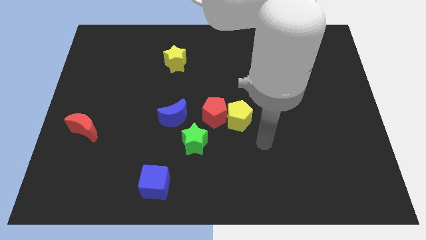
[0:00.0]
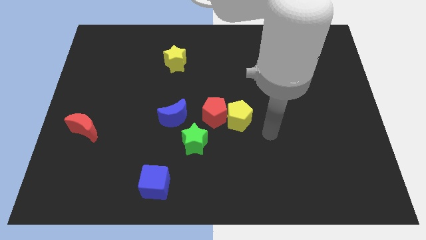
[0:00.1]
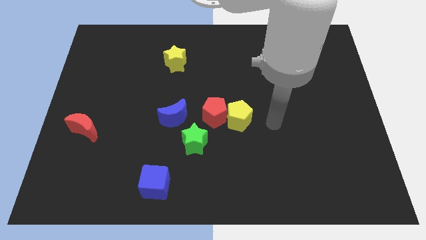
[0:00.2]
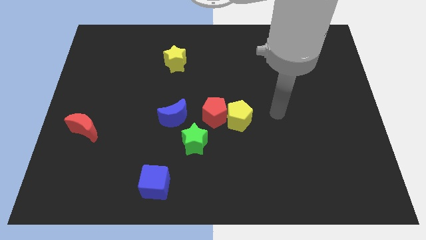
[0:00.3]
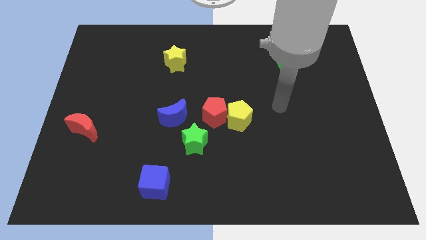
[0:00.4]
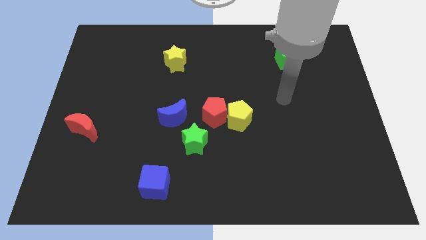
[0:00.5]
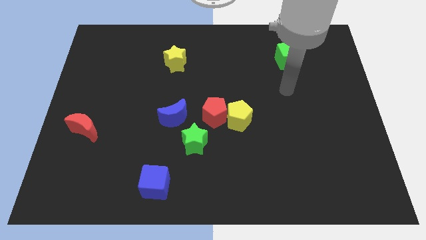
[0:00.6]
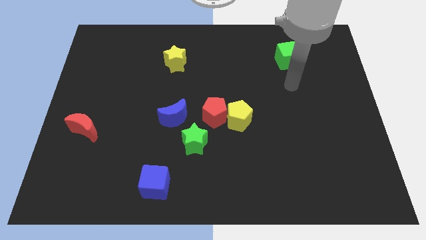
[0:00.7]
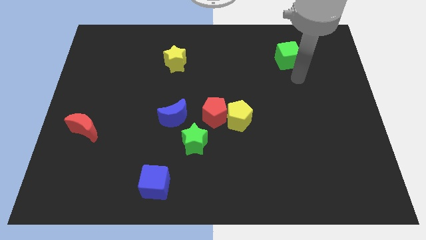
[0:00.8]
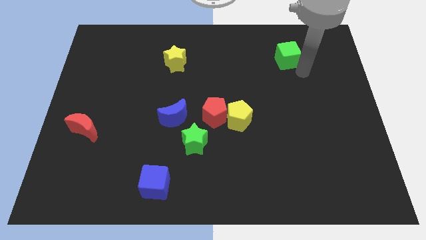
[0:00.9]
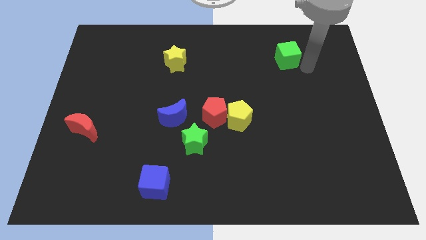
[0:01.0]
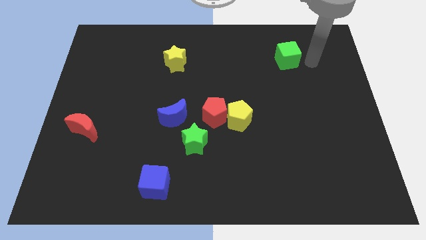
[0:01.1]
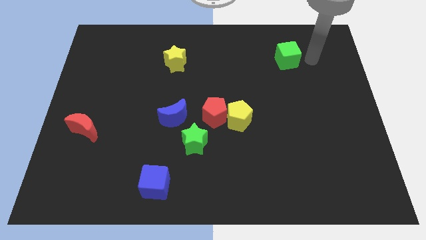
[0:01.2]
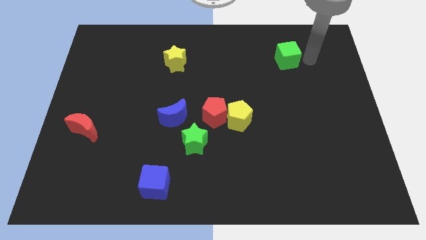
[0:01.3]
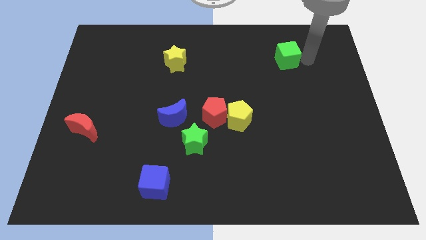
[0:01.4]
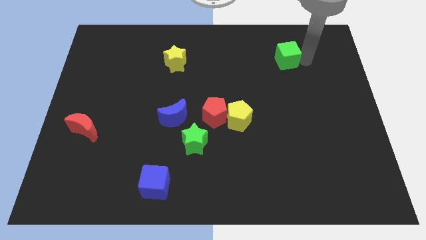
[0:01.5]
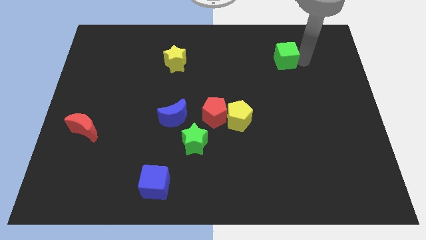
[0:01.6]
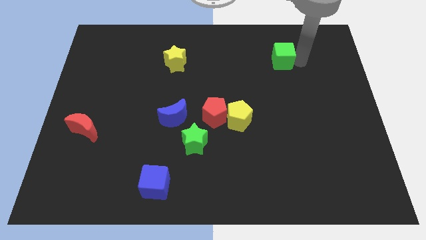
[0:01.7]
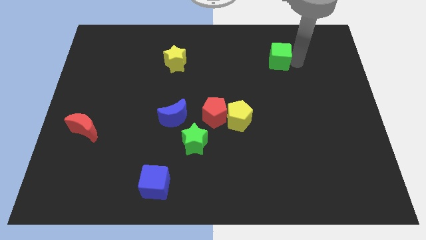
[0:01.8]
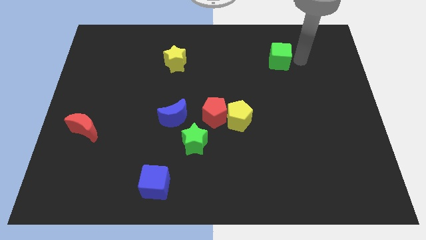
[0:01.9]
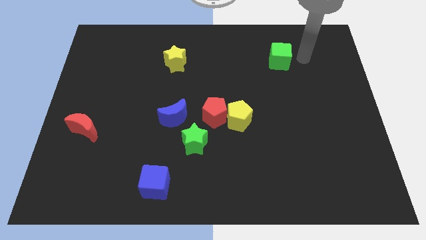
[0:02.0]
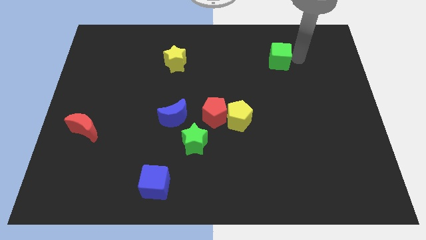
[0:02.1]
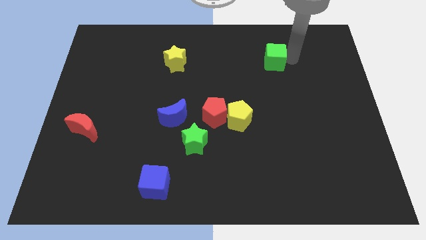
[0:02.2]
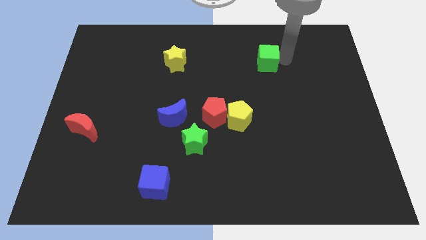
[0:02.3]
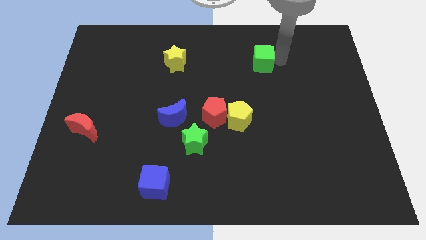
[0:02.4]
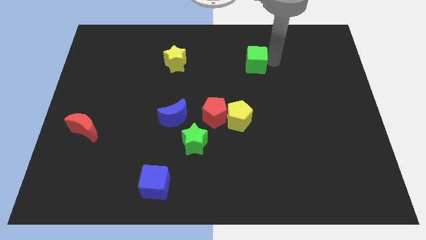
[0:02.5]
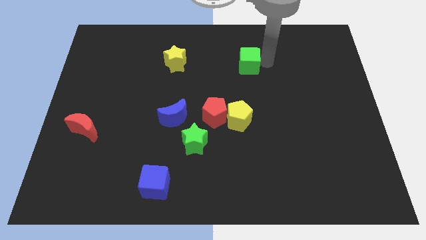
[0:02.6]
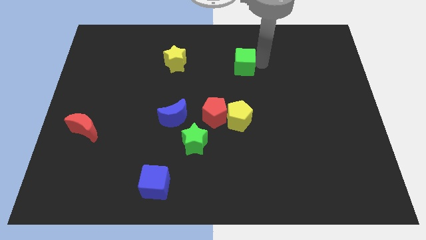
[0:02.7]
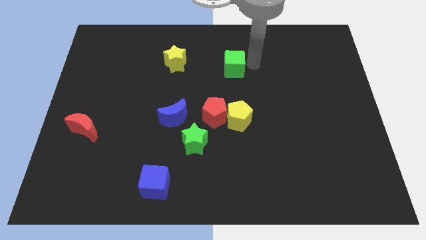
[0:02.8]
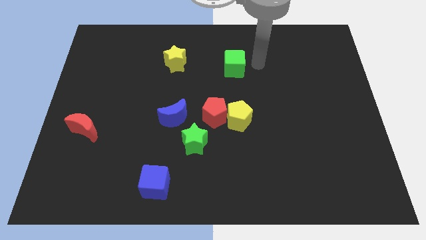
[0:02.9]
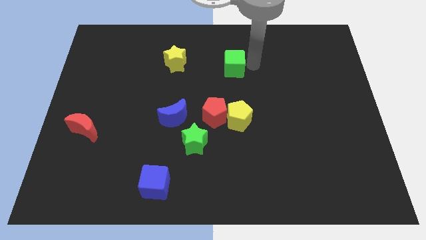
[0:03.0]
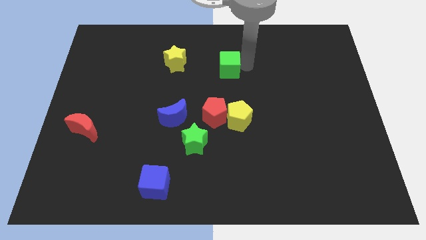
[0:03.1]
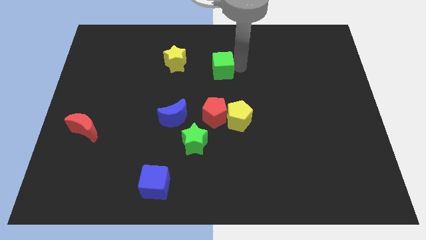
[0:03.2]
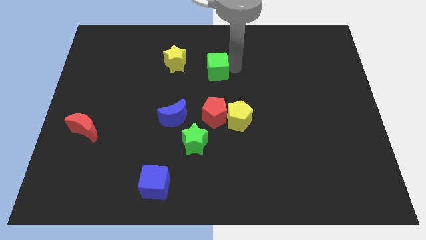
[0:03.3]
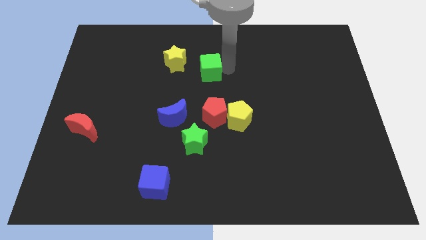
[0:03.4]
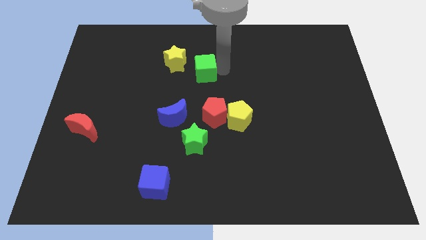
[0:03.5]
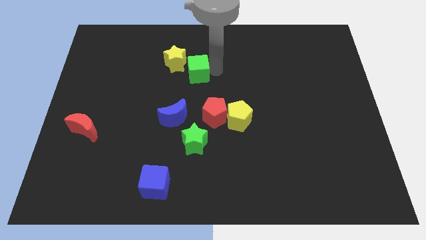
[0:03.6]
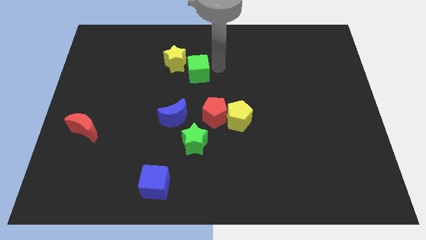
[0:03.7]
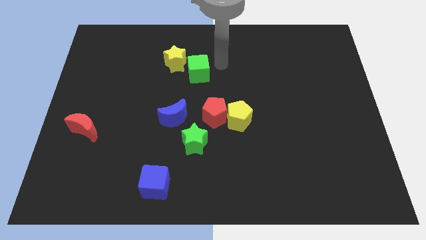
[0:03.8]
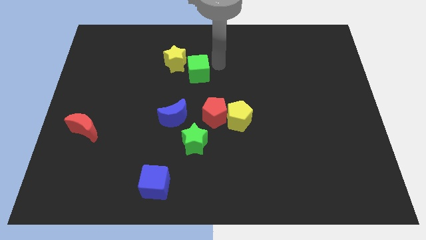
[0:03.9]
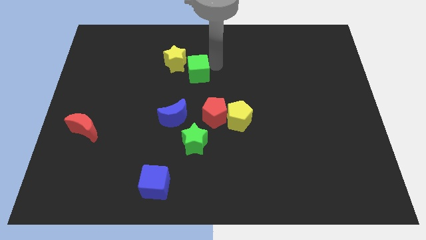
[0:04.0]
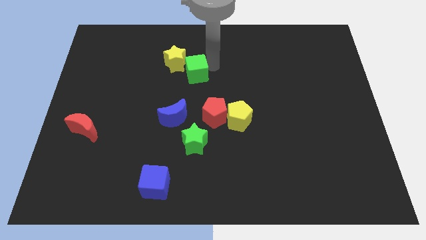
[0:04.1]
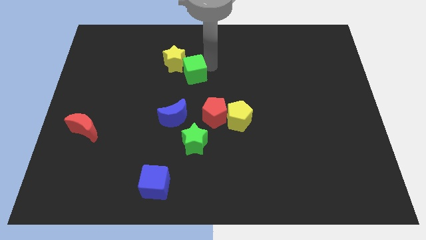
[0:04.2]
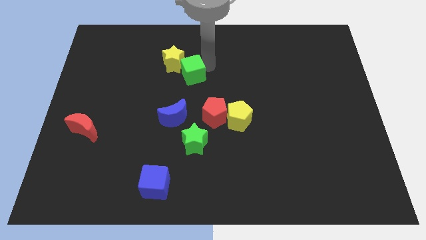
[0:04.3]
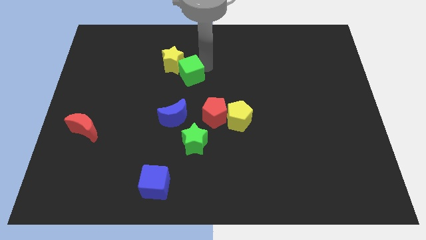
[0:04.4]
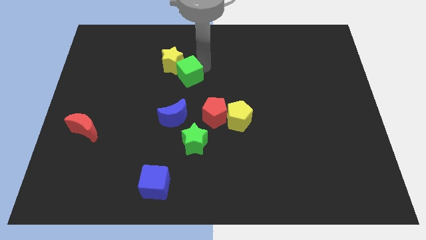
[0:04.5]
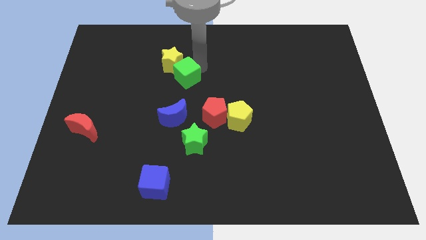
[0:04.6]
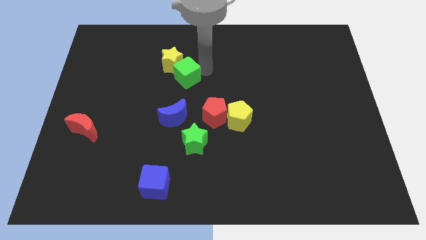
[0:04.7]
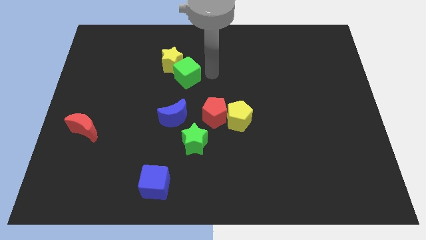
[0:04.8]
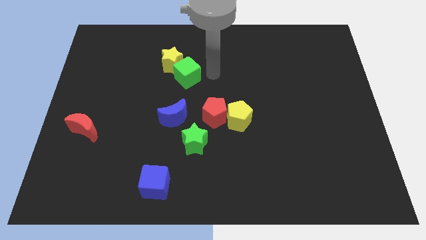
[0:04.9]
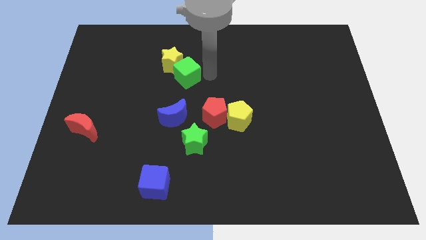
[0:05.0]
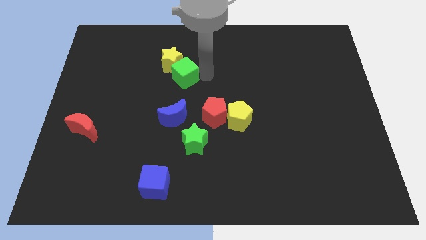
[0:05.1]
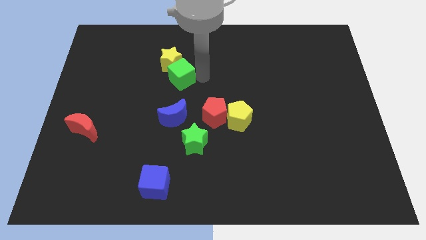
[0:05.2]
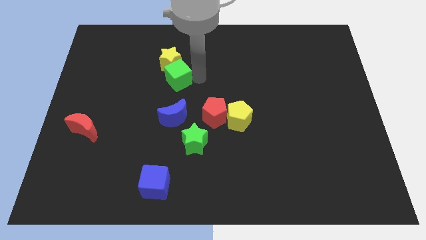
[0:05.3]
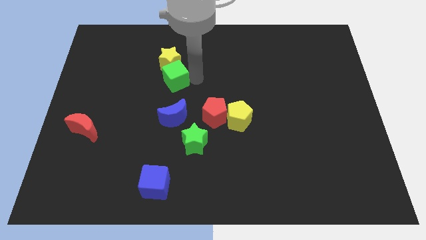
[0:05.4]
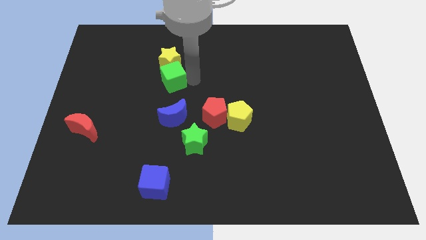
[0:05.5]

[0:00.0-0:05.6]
move the green cube to the bottom left of the yellow star

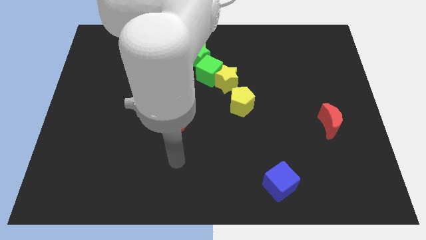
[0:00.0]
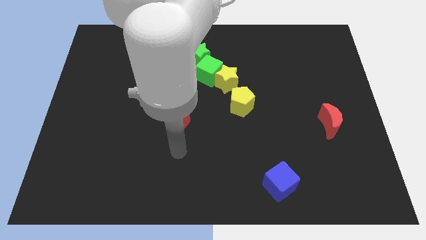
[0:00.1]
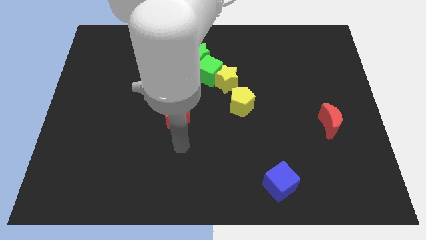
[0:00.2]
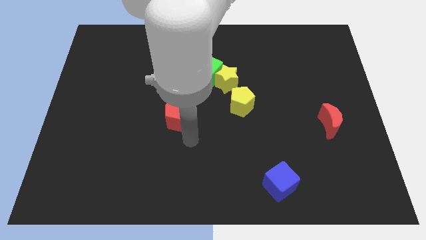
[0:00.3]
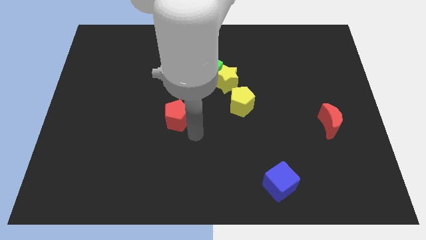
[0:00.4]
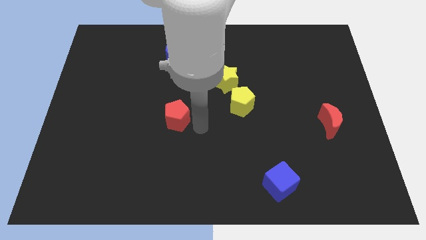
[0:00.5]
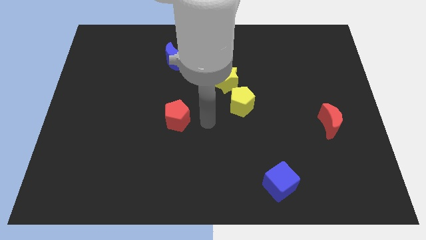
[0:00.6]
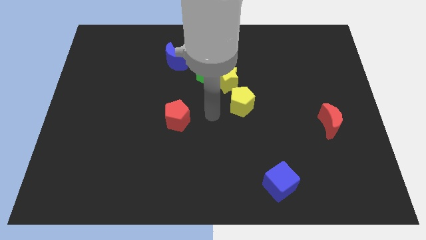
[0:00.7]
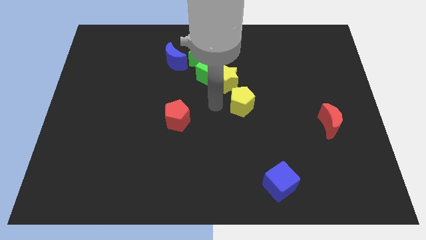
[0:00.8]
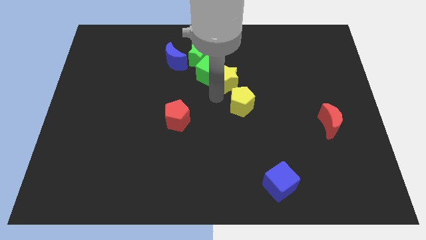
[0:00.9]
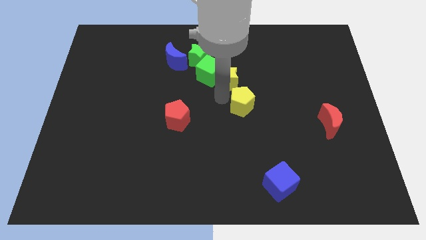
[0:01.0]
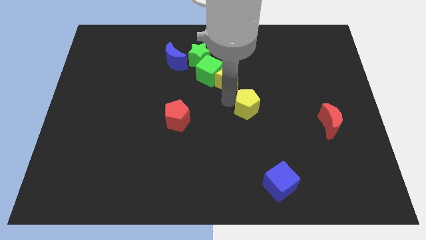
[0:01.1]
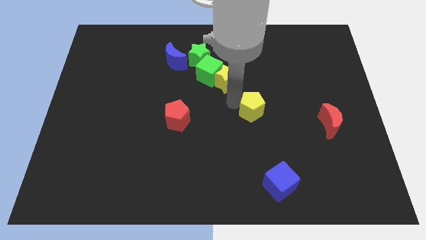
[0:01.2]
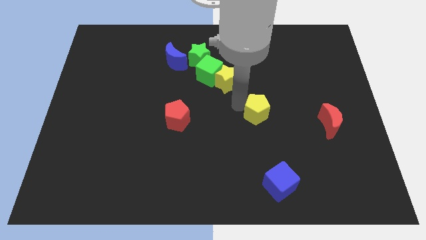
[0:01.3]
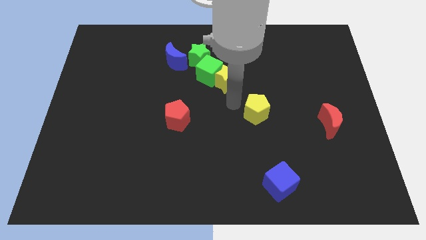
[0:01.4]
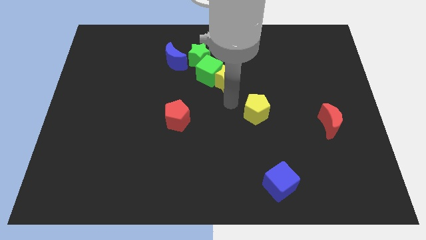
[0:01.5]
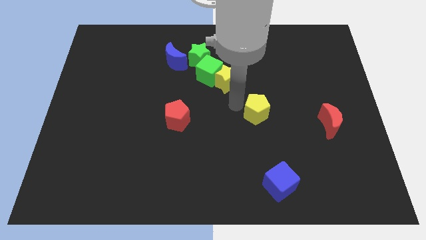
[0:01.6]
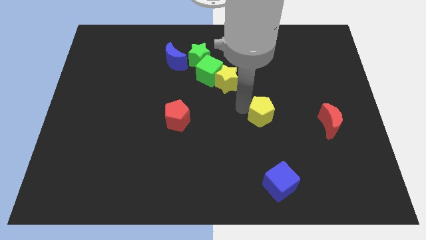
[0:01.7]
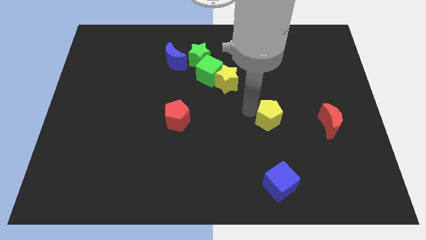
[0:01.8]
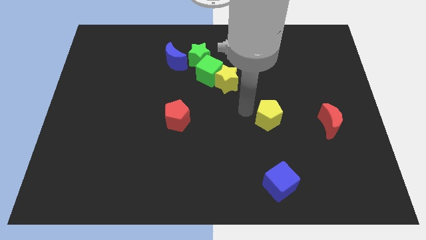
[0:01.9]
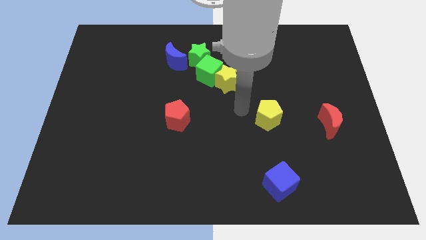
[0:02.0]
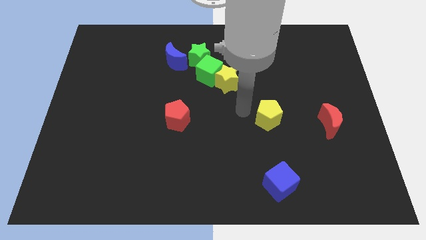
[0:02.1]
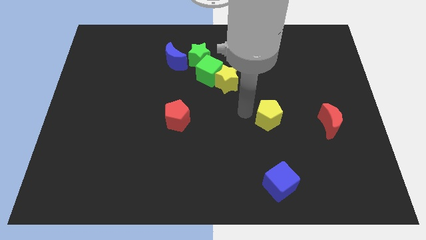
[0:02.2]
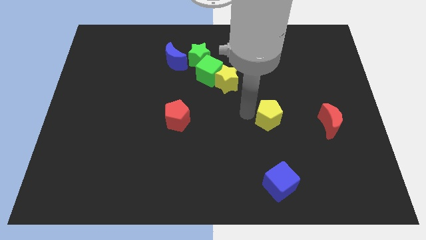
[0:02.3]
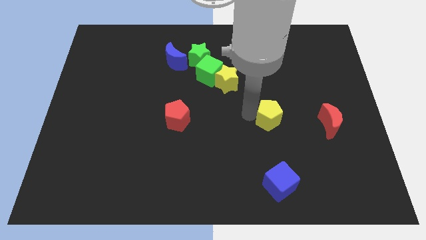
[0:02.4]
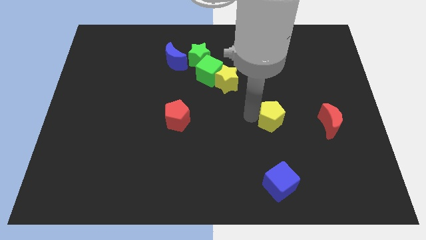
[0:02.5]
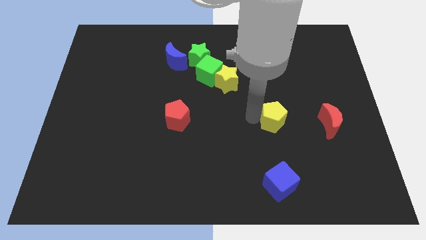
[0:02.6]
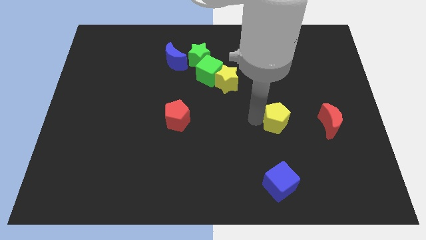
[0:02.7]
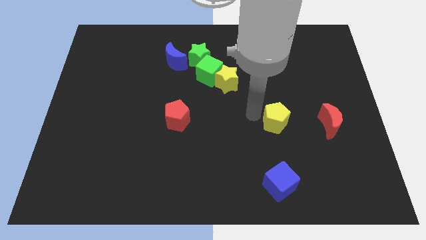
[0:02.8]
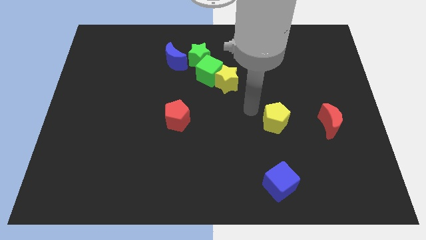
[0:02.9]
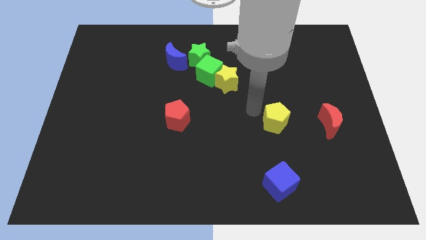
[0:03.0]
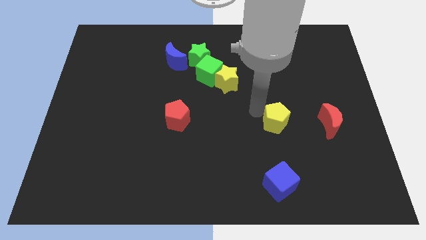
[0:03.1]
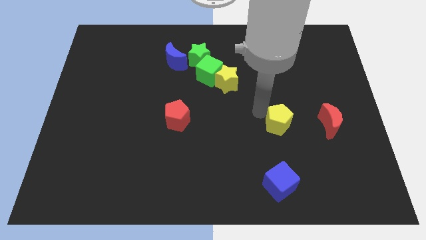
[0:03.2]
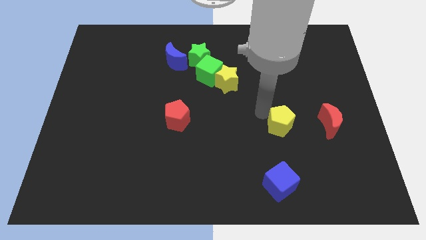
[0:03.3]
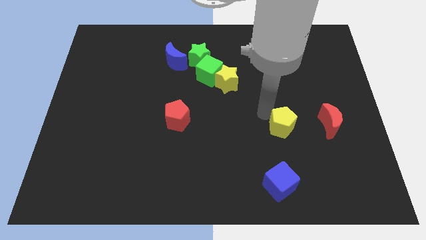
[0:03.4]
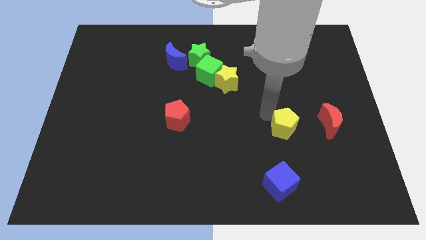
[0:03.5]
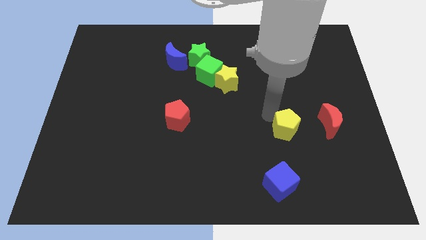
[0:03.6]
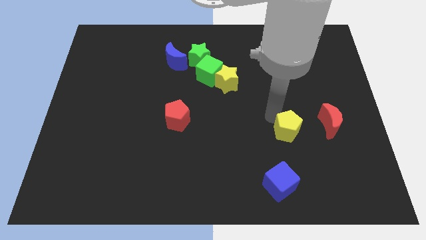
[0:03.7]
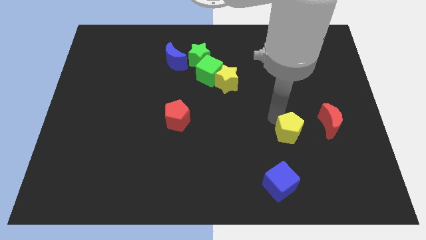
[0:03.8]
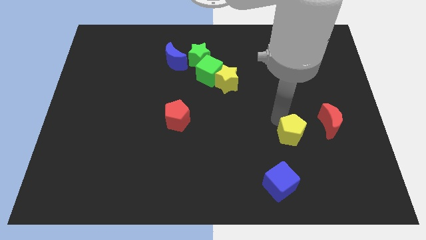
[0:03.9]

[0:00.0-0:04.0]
push the yellow pentagon diagonally down and to the left of the red moon
